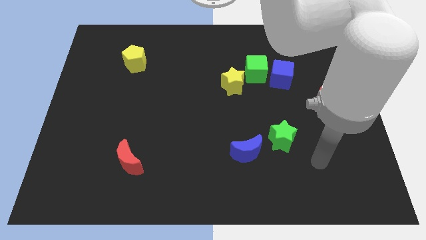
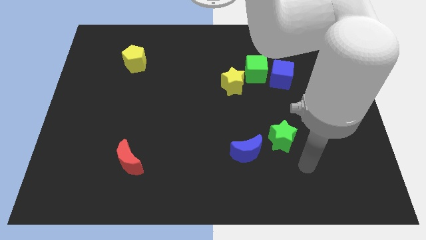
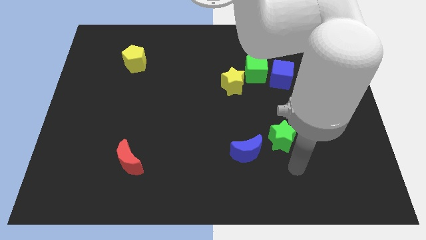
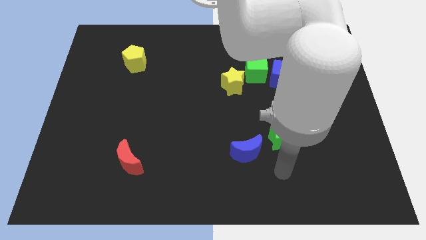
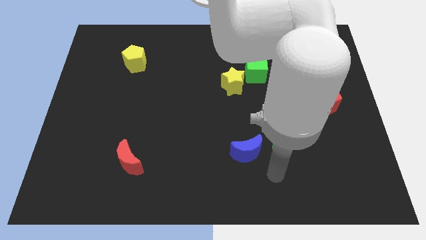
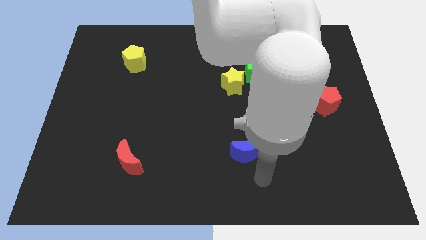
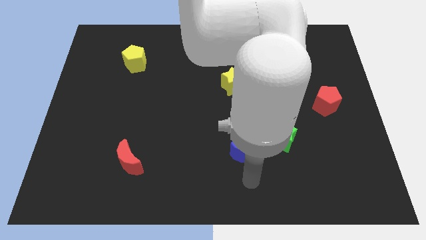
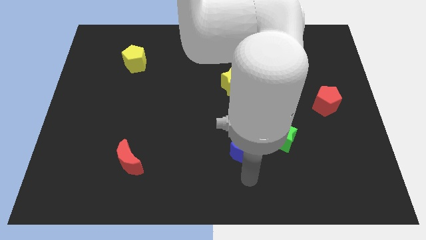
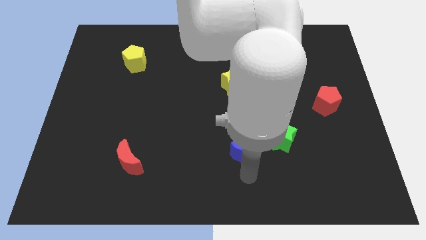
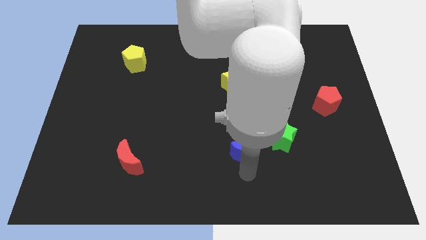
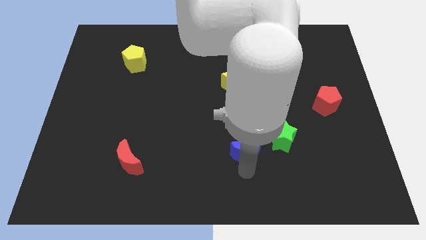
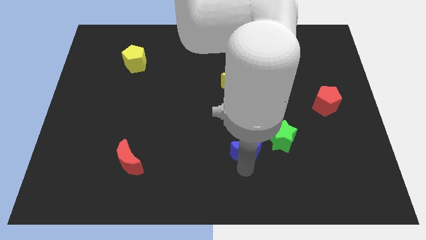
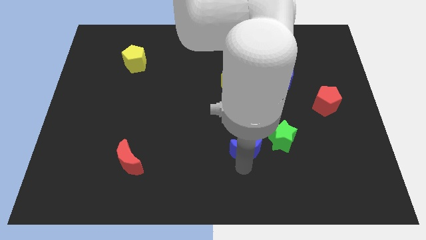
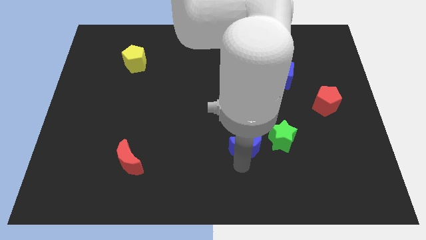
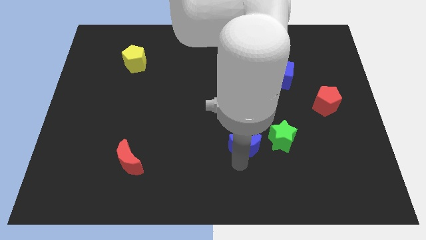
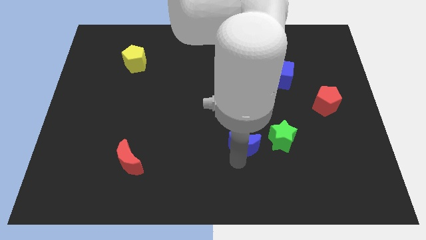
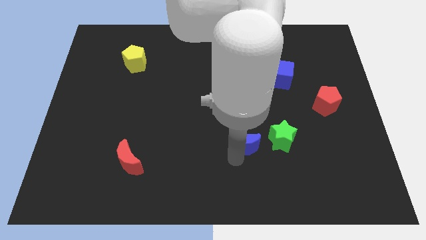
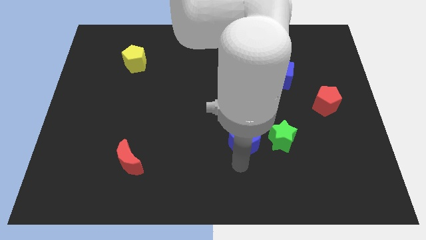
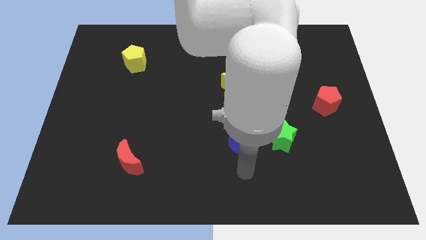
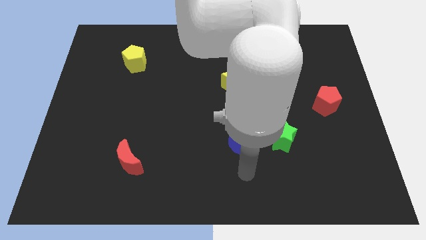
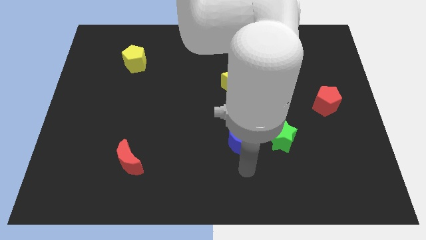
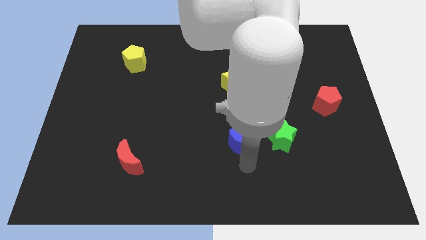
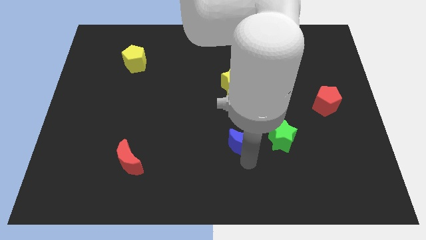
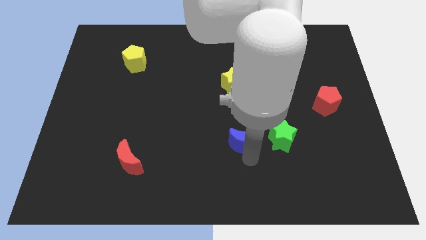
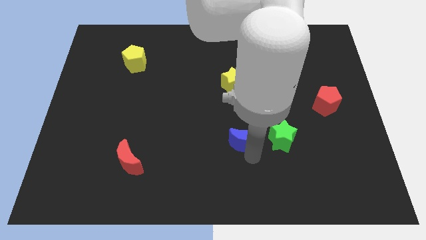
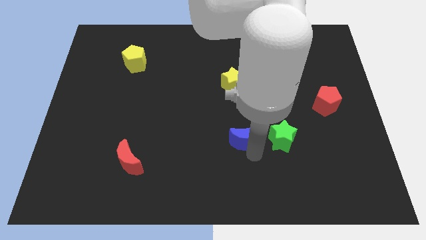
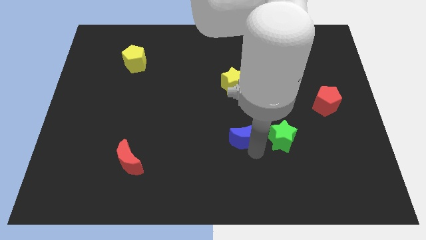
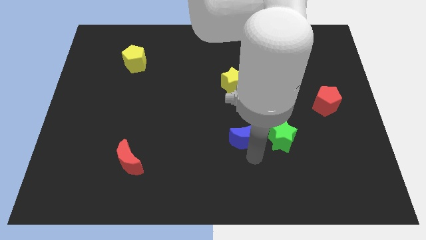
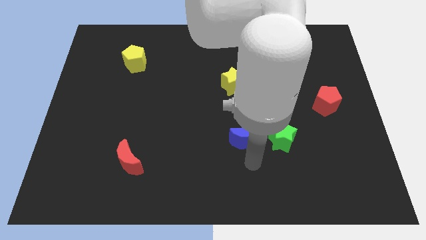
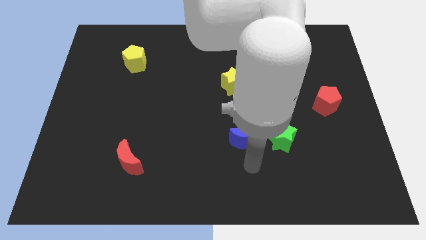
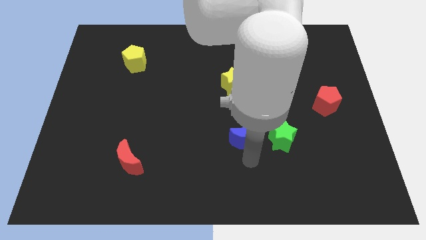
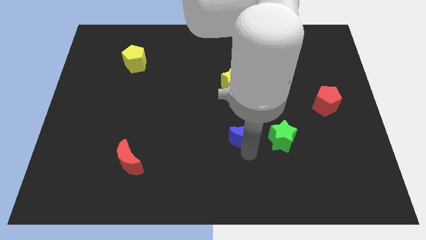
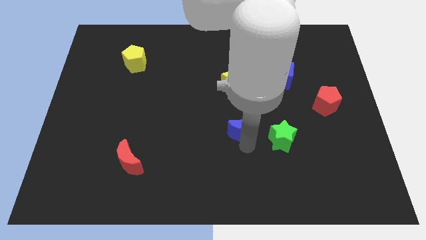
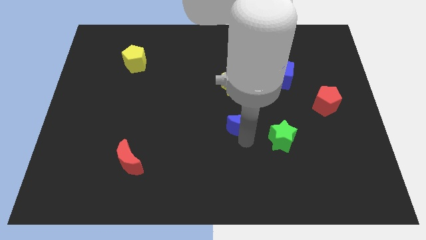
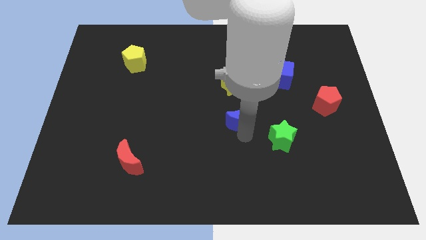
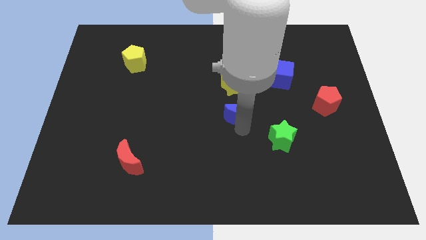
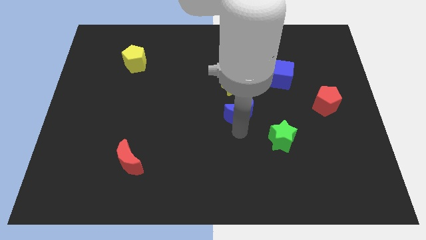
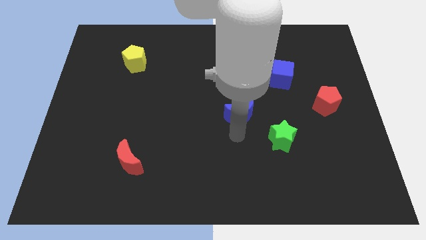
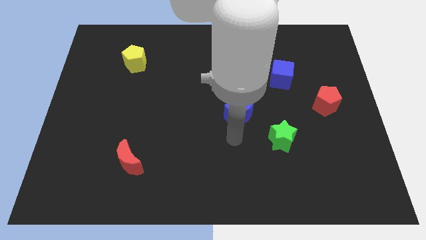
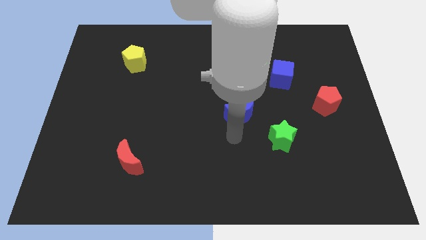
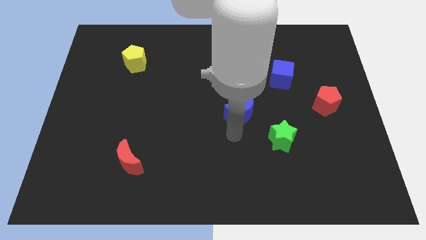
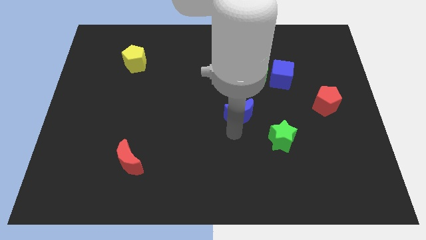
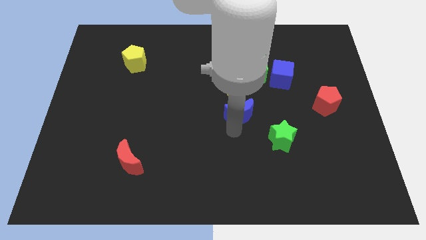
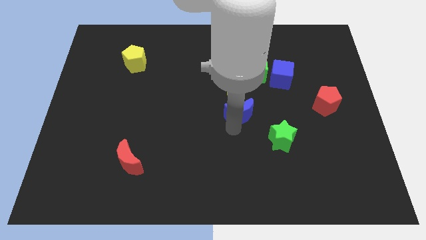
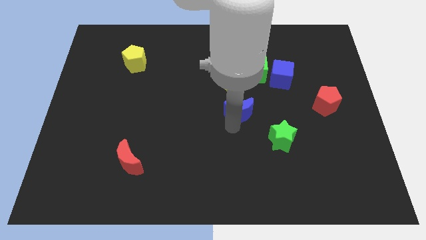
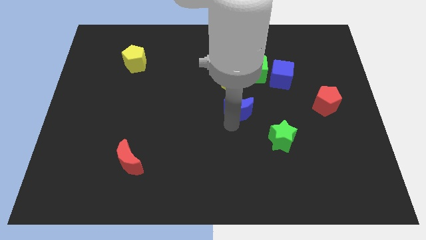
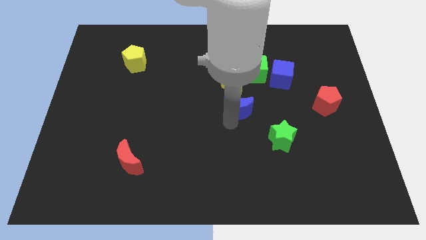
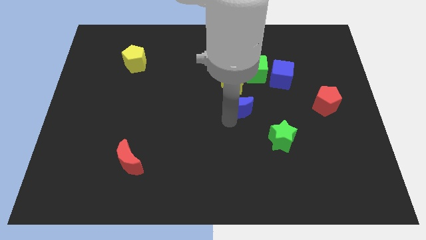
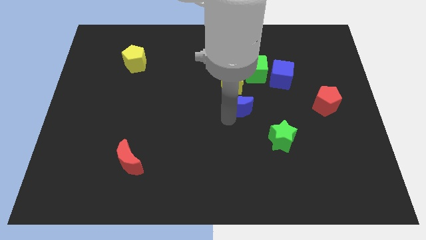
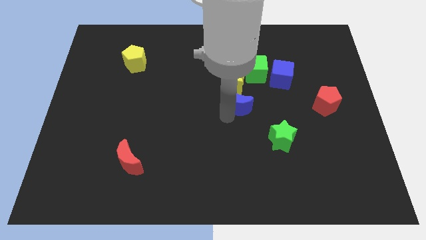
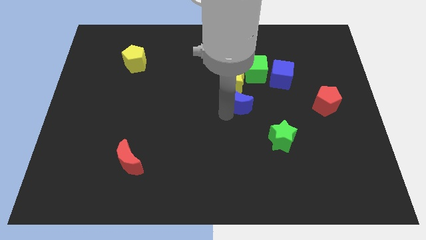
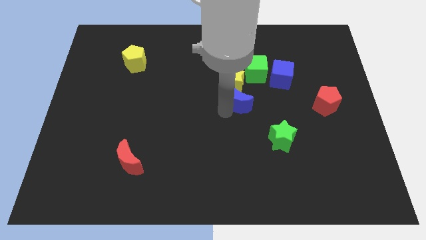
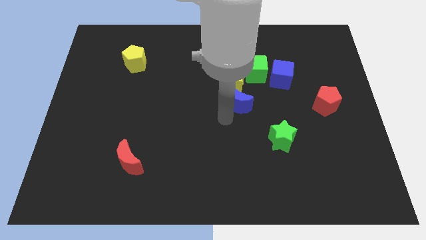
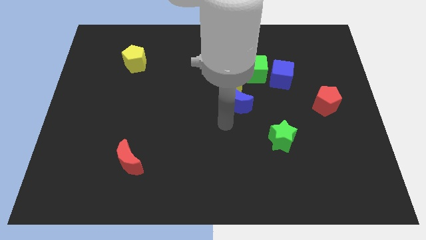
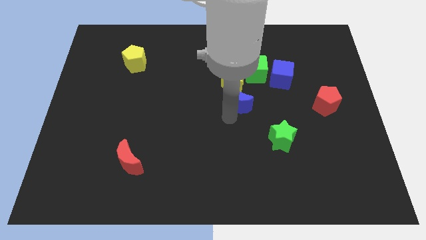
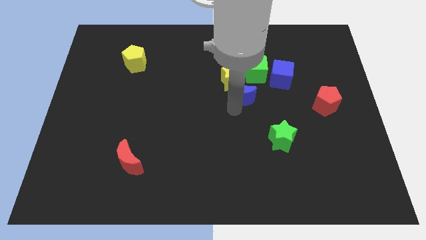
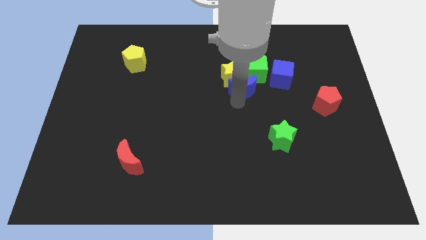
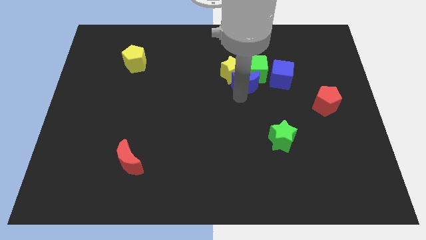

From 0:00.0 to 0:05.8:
move the blue moon close to the green cube

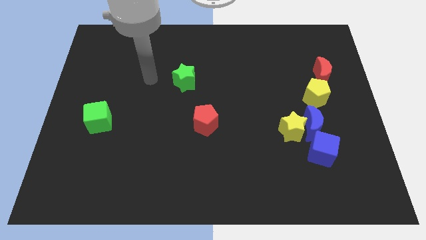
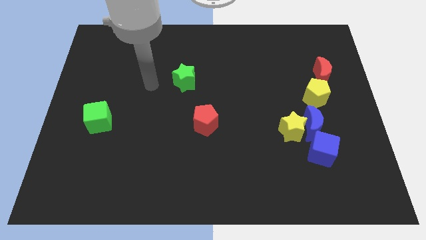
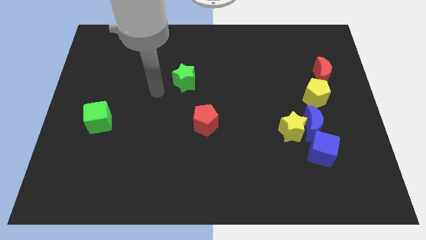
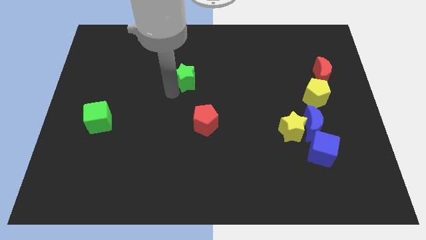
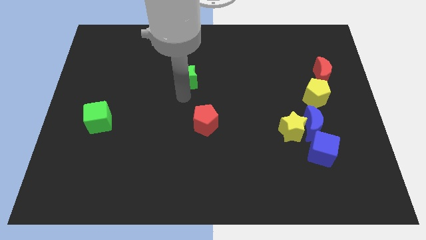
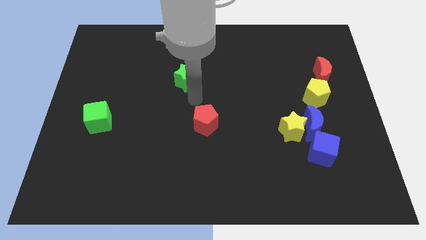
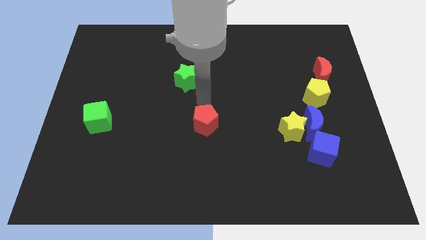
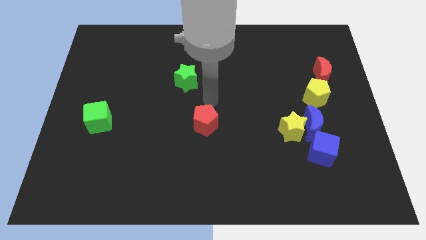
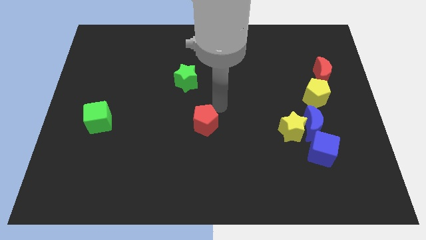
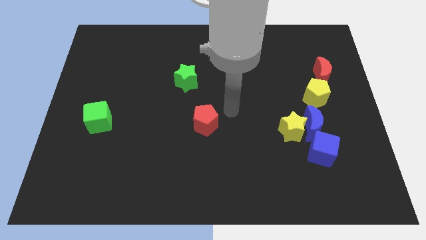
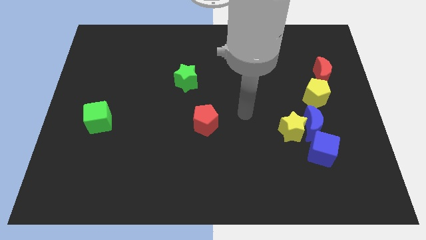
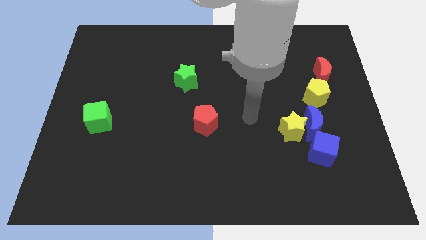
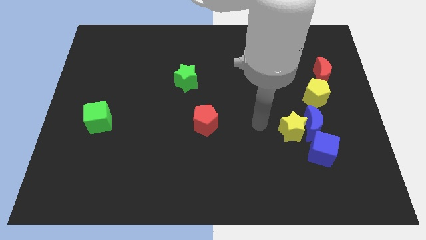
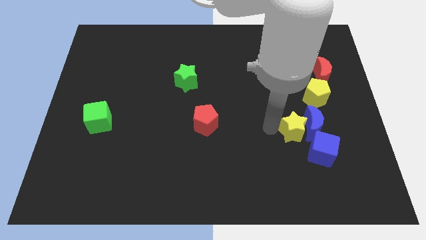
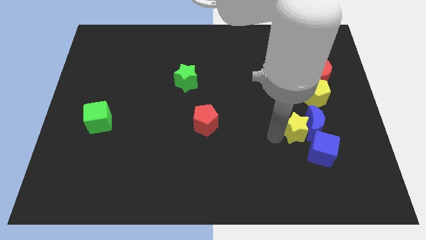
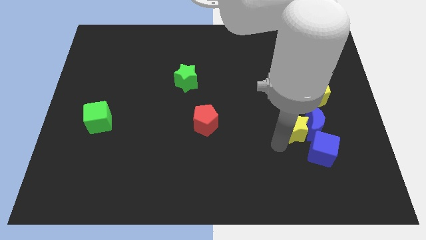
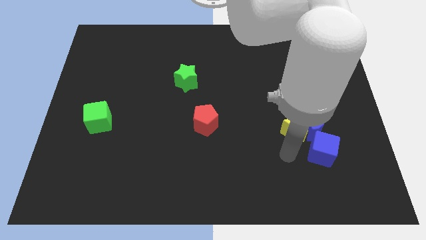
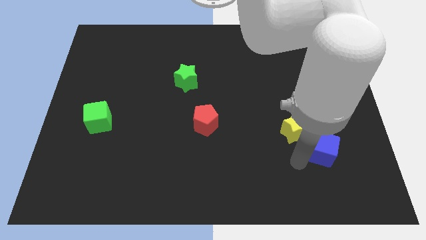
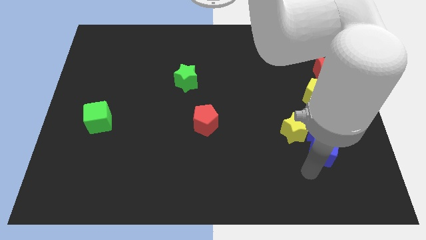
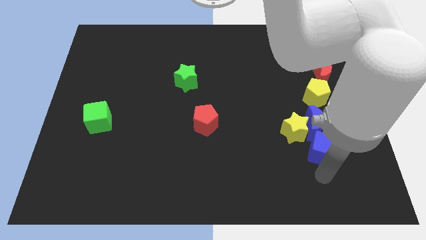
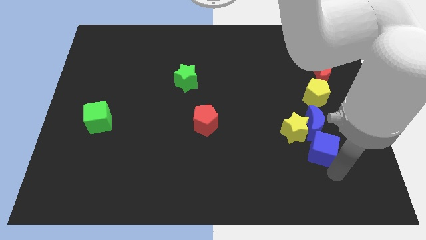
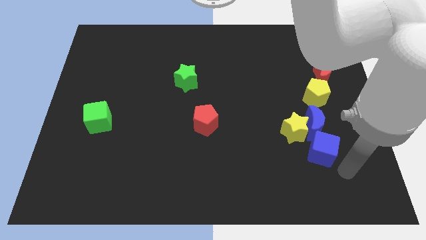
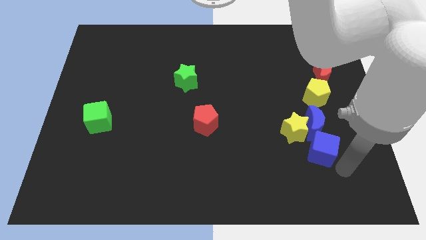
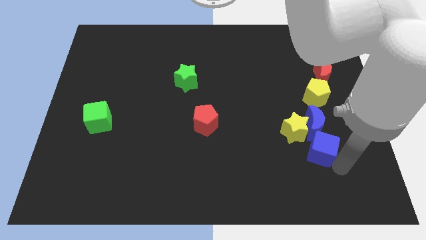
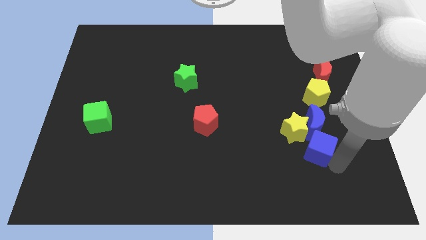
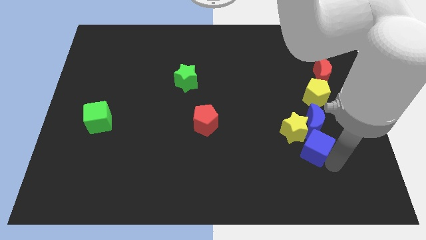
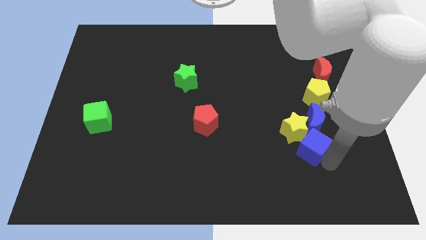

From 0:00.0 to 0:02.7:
put the blue cube next to the yellow star
